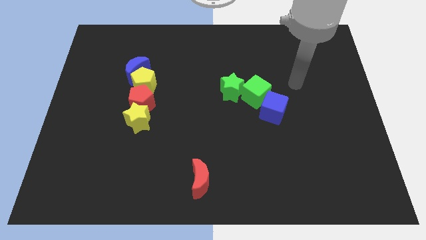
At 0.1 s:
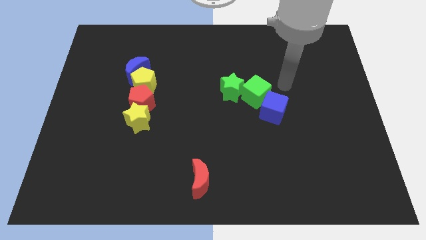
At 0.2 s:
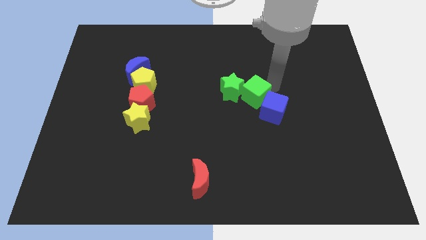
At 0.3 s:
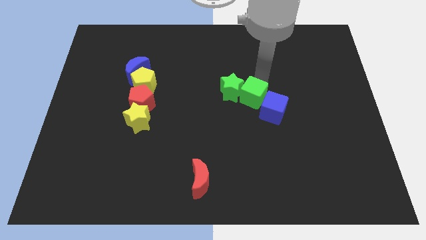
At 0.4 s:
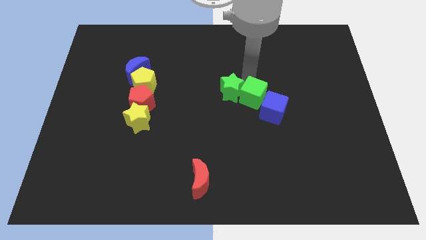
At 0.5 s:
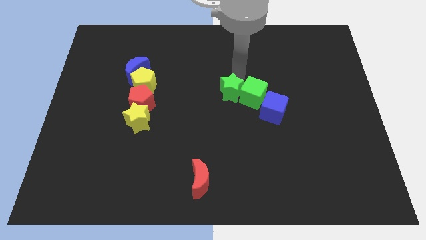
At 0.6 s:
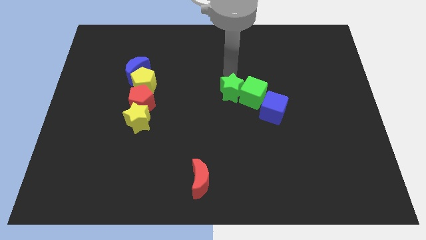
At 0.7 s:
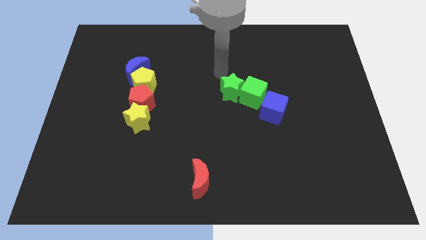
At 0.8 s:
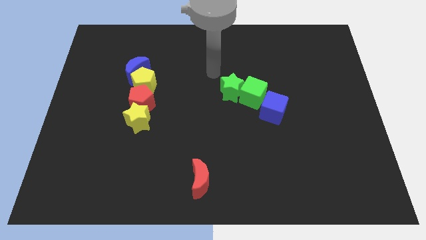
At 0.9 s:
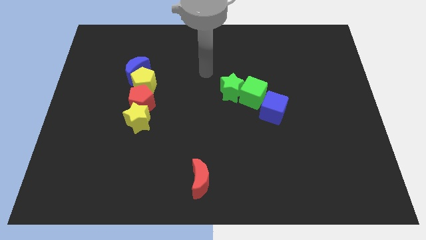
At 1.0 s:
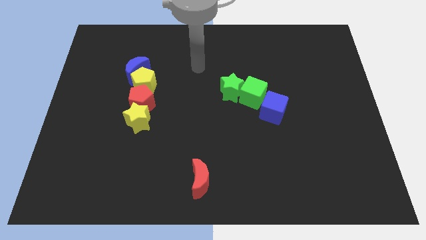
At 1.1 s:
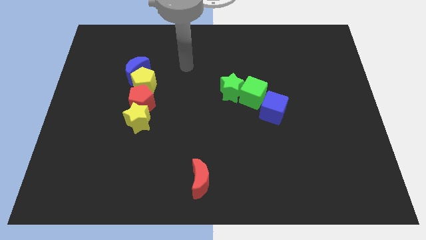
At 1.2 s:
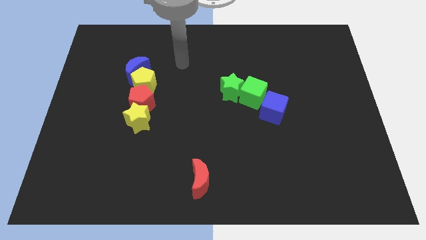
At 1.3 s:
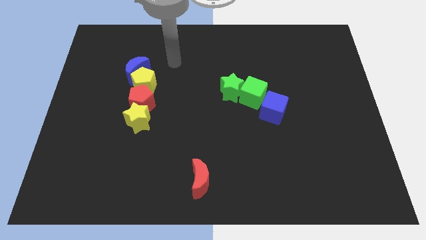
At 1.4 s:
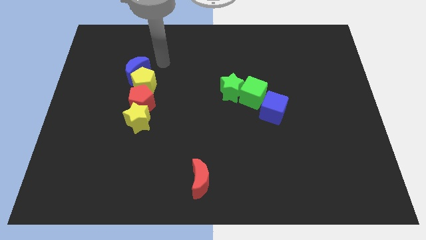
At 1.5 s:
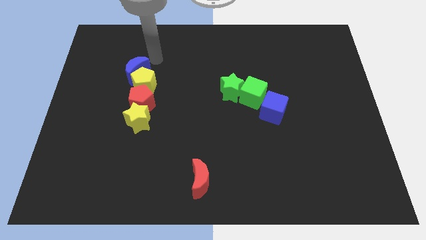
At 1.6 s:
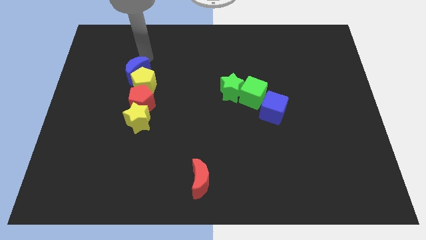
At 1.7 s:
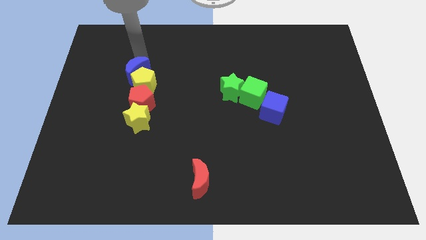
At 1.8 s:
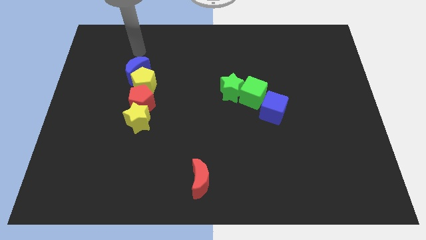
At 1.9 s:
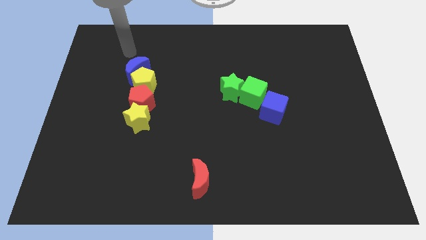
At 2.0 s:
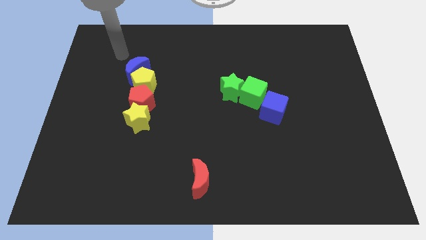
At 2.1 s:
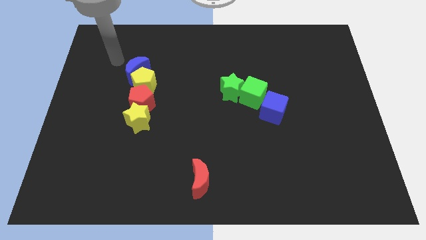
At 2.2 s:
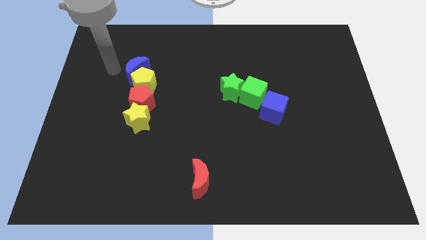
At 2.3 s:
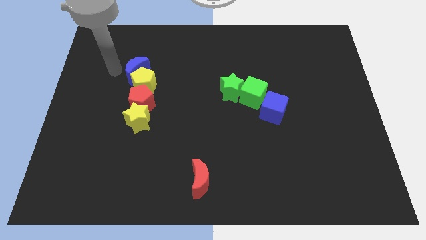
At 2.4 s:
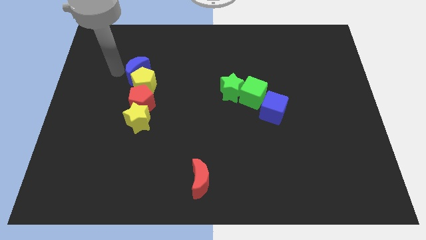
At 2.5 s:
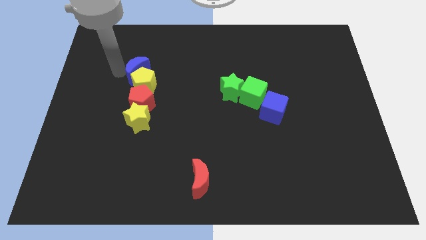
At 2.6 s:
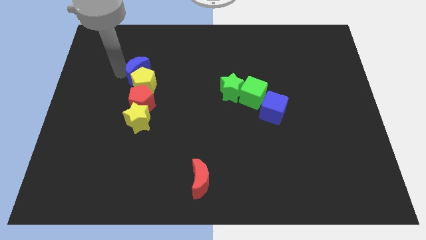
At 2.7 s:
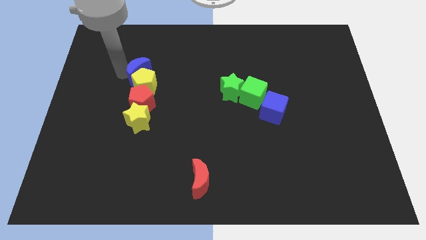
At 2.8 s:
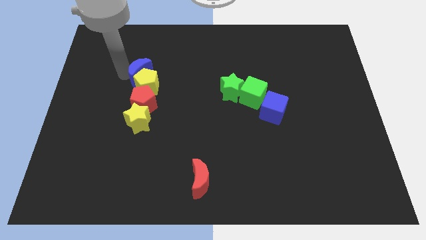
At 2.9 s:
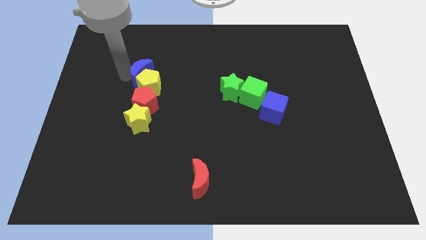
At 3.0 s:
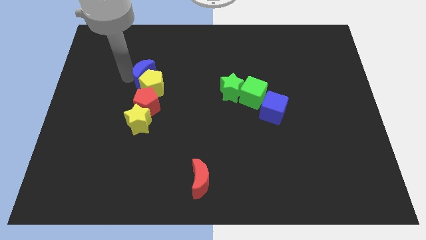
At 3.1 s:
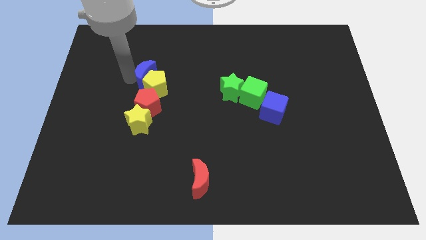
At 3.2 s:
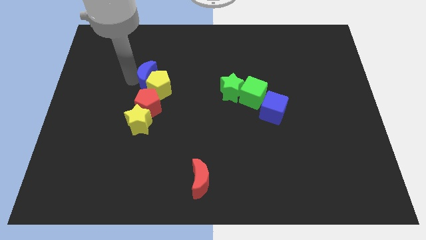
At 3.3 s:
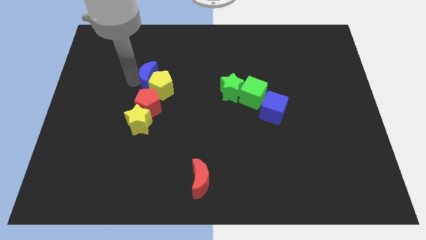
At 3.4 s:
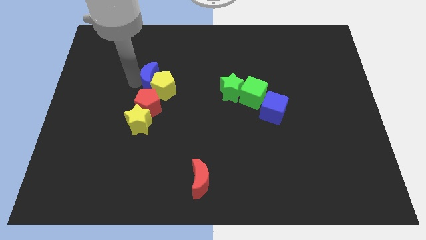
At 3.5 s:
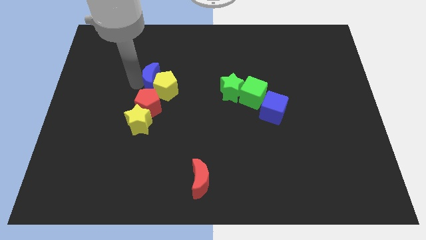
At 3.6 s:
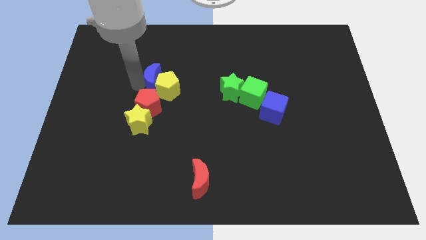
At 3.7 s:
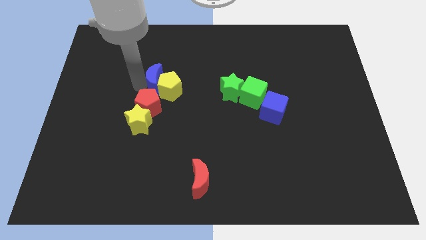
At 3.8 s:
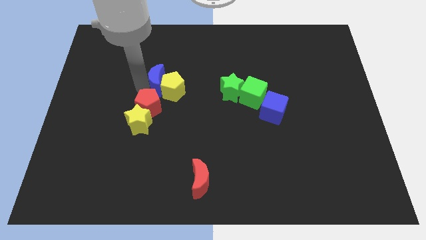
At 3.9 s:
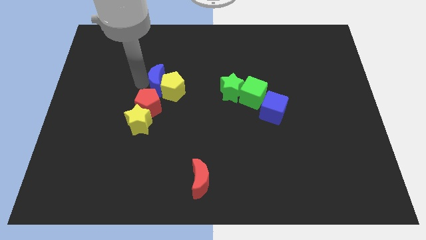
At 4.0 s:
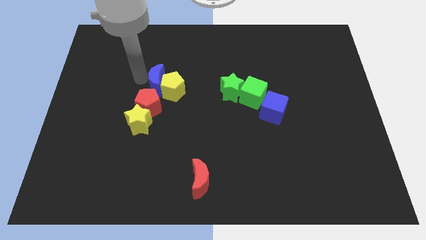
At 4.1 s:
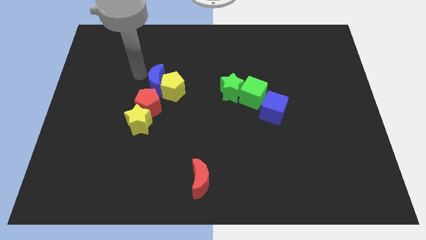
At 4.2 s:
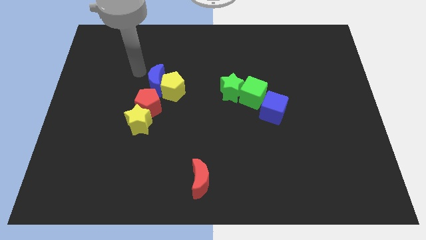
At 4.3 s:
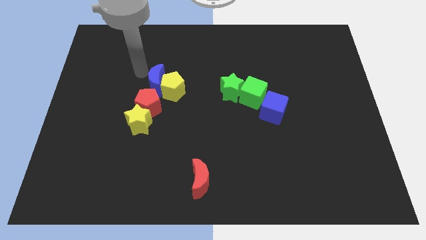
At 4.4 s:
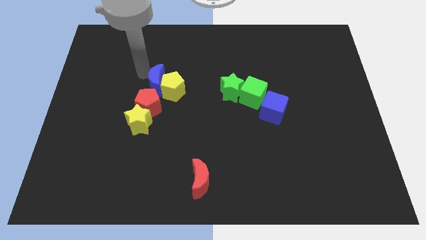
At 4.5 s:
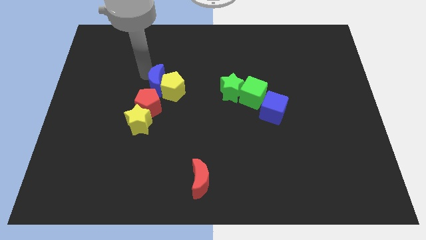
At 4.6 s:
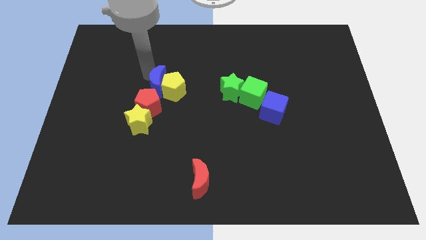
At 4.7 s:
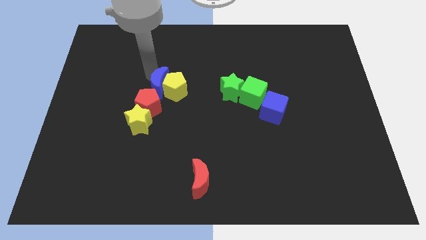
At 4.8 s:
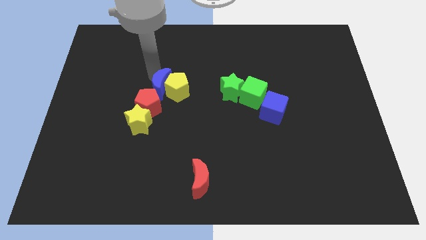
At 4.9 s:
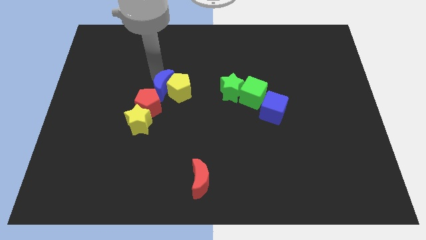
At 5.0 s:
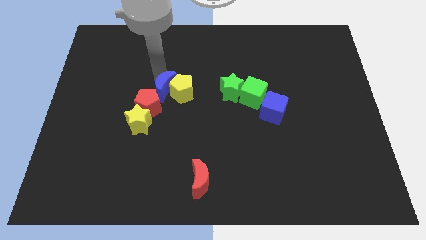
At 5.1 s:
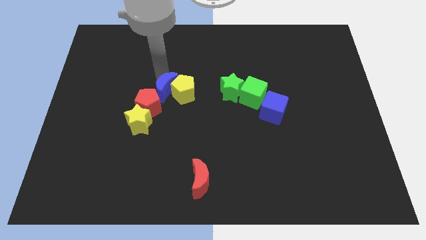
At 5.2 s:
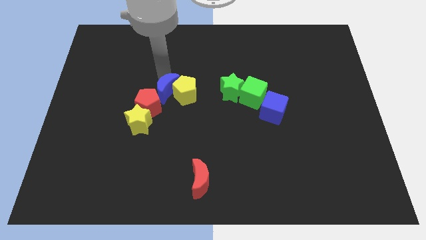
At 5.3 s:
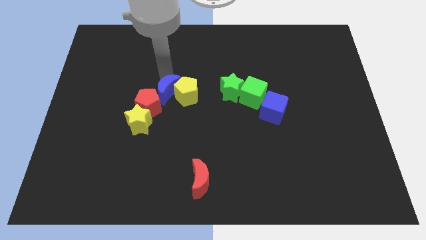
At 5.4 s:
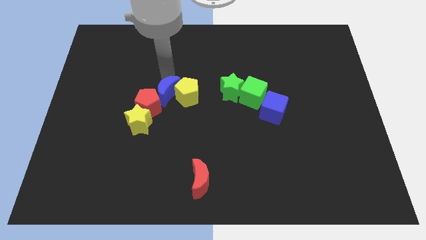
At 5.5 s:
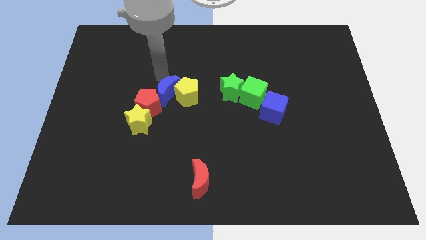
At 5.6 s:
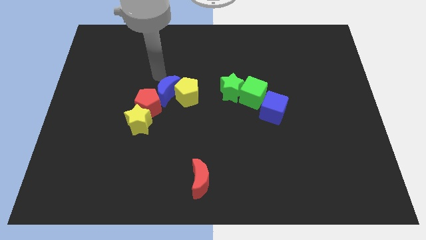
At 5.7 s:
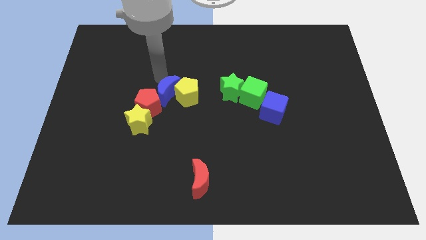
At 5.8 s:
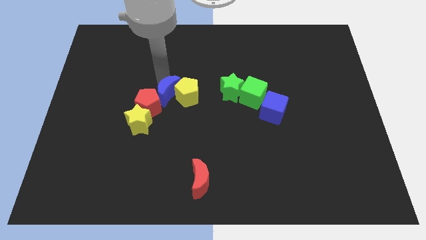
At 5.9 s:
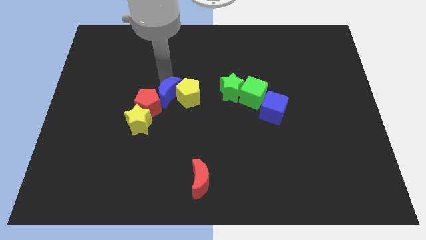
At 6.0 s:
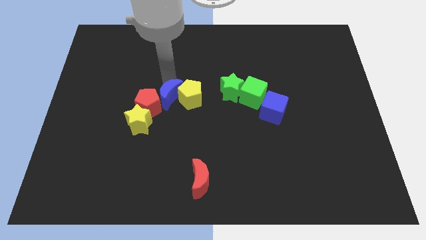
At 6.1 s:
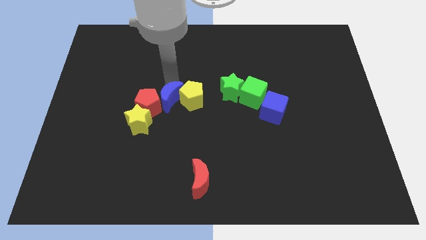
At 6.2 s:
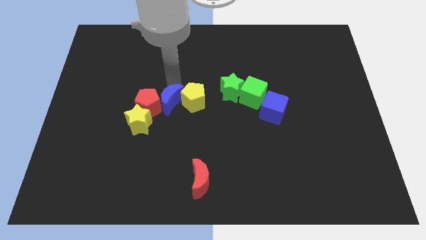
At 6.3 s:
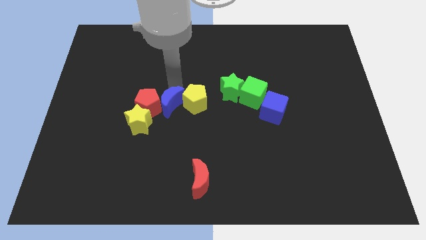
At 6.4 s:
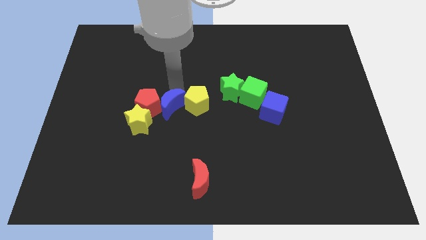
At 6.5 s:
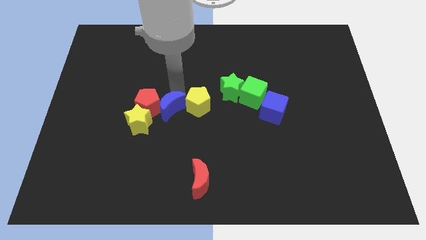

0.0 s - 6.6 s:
move the blue moon right of the yellow star
